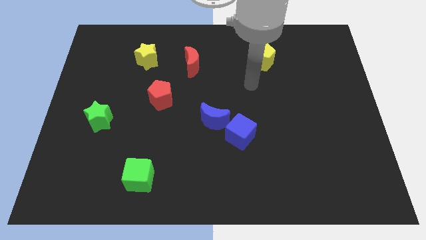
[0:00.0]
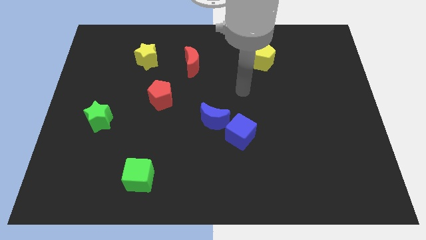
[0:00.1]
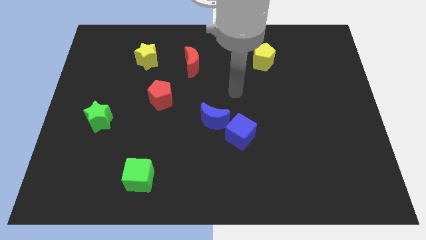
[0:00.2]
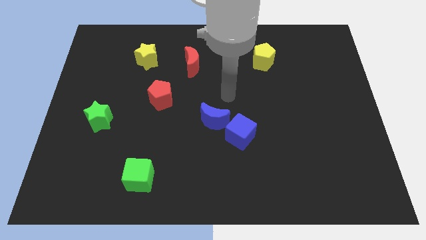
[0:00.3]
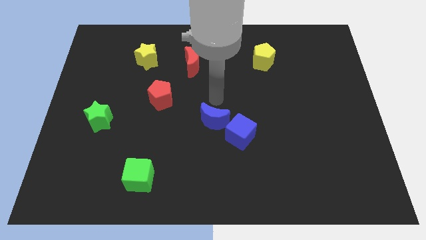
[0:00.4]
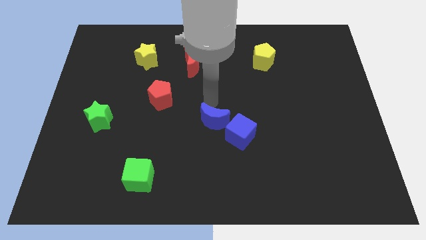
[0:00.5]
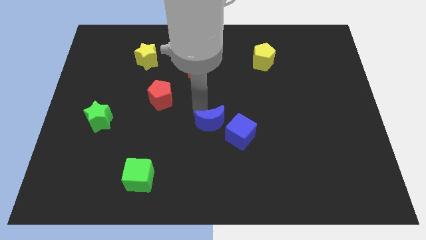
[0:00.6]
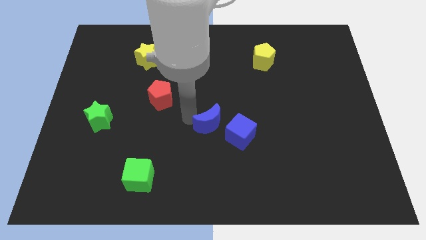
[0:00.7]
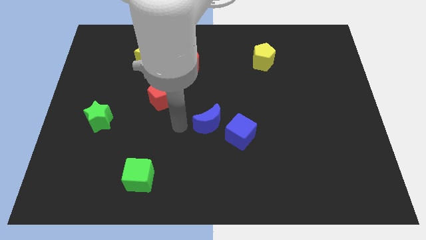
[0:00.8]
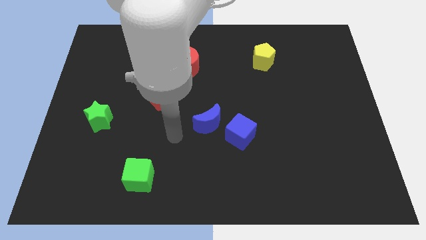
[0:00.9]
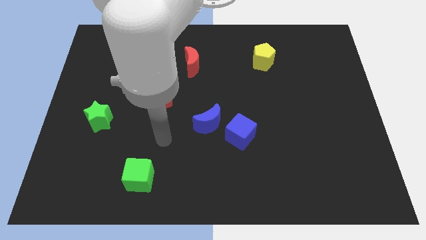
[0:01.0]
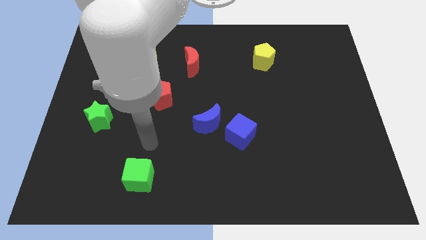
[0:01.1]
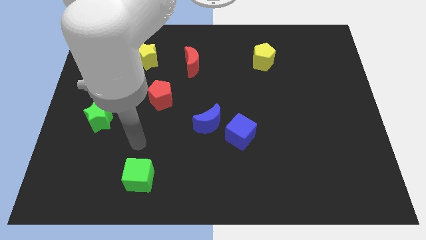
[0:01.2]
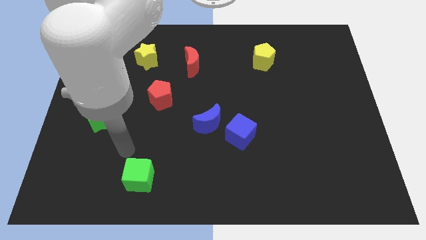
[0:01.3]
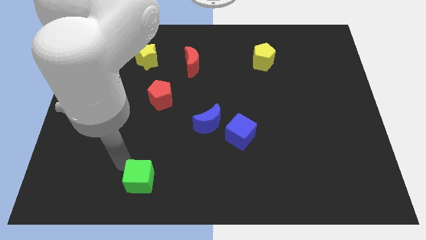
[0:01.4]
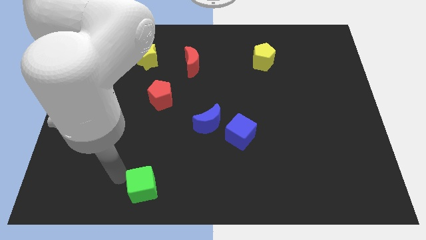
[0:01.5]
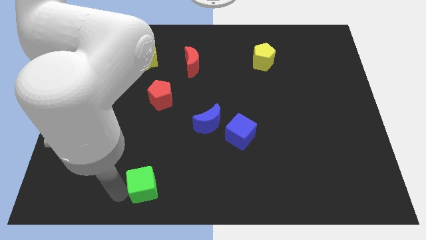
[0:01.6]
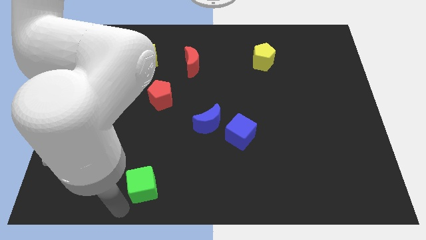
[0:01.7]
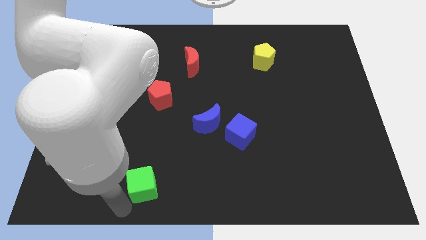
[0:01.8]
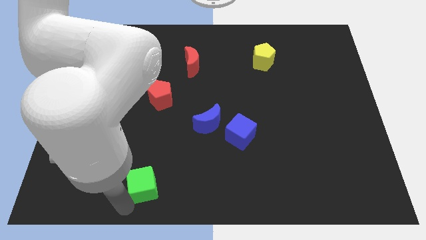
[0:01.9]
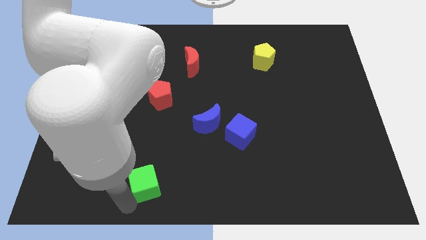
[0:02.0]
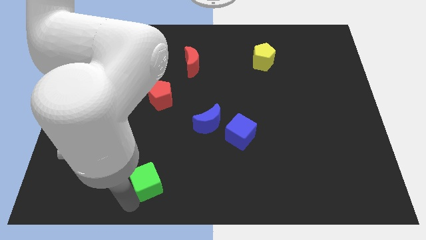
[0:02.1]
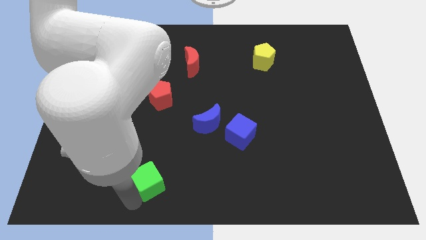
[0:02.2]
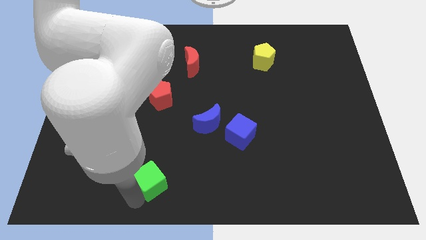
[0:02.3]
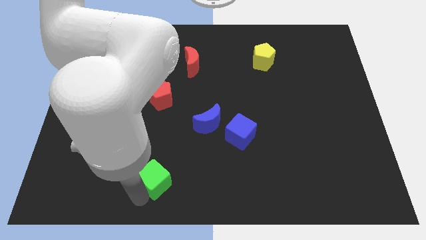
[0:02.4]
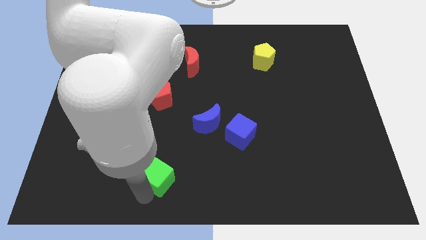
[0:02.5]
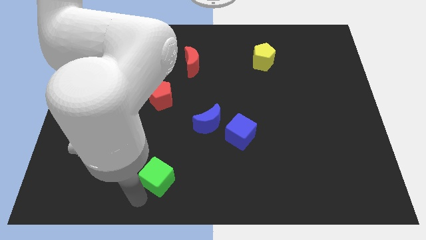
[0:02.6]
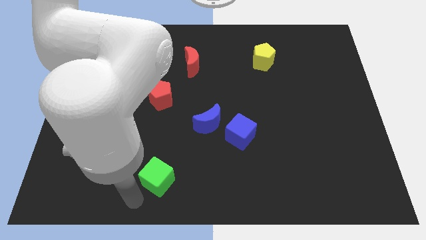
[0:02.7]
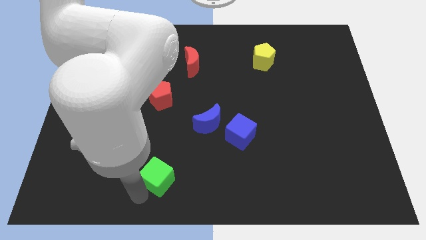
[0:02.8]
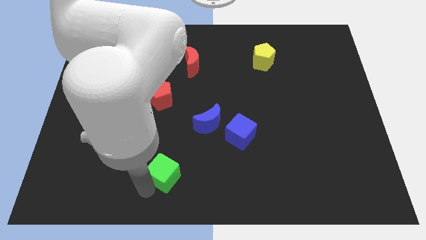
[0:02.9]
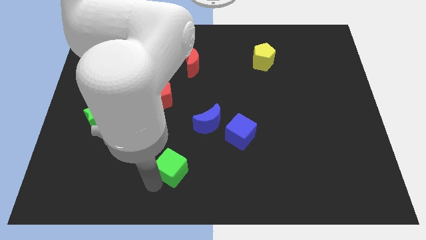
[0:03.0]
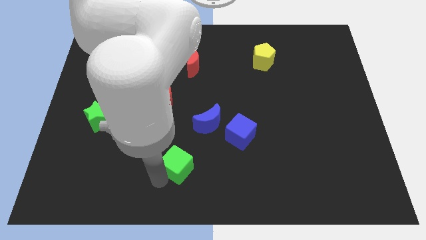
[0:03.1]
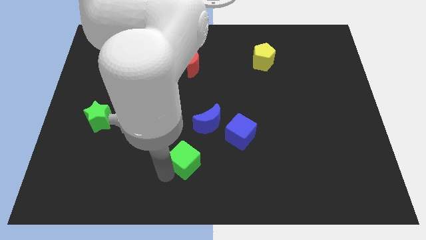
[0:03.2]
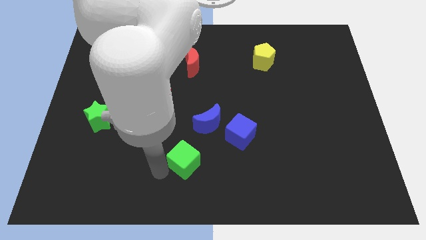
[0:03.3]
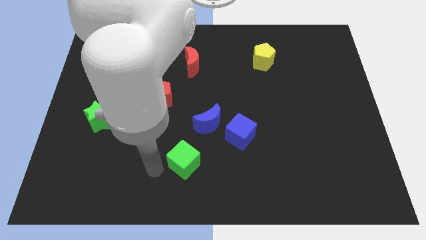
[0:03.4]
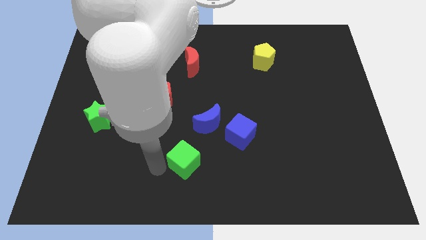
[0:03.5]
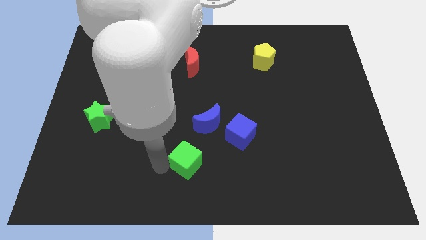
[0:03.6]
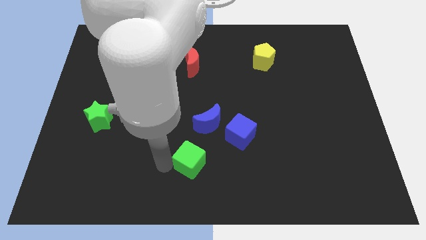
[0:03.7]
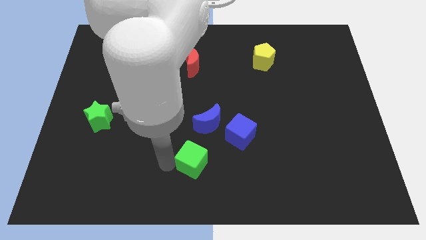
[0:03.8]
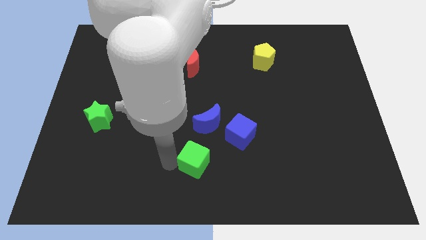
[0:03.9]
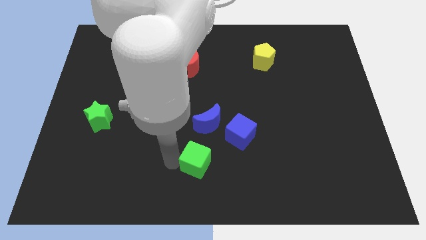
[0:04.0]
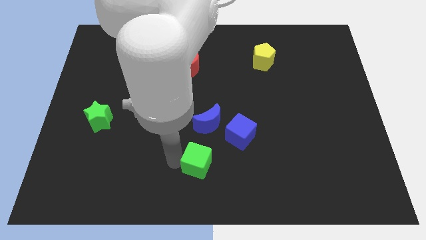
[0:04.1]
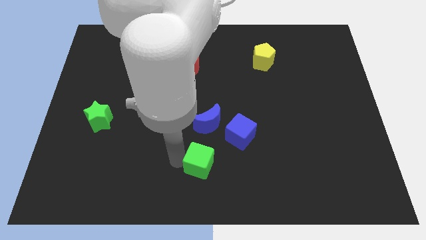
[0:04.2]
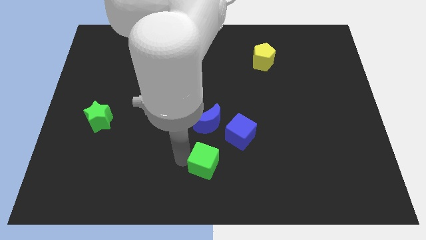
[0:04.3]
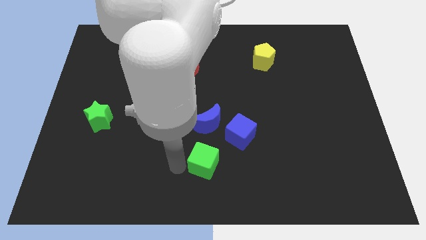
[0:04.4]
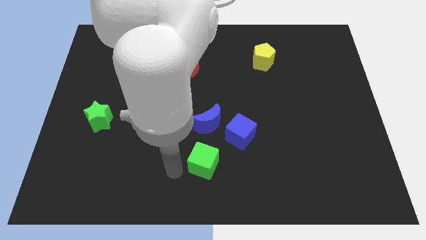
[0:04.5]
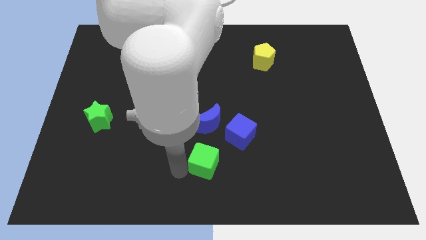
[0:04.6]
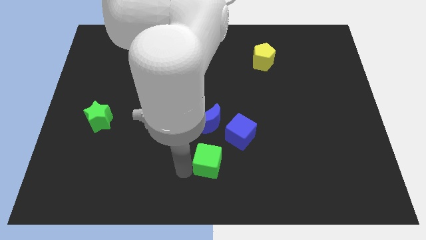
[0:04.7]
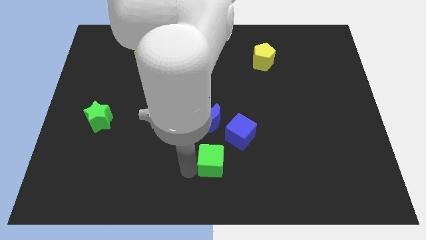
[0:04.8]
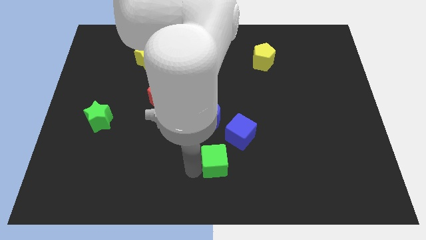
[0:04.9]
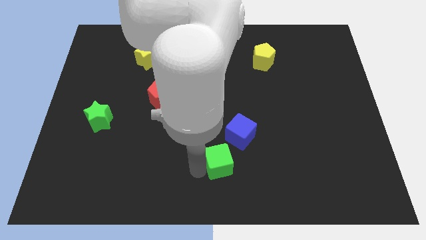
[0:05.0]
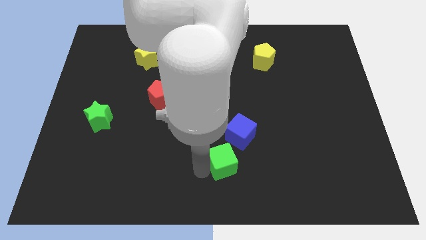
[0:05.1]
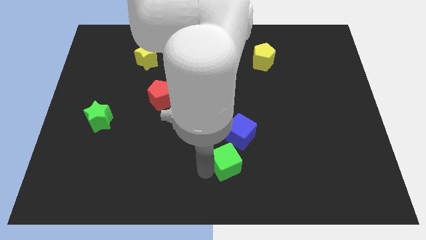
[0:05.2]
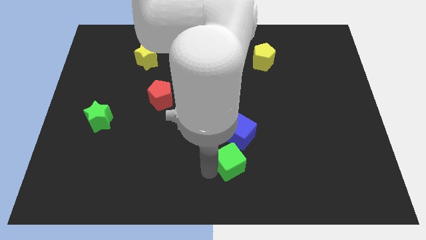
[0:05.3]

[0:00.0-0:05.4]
slide the green cube to the bottom right side of the blue moon
